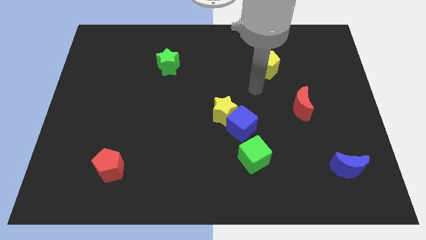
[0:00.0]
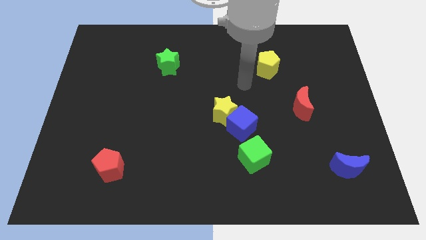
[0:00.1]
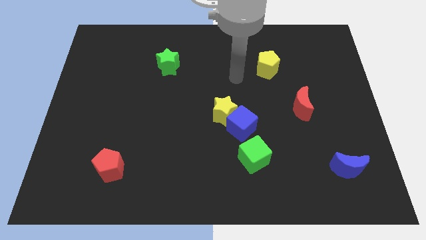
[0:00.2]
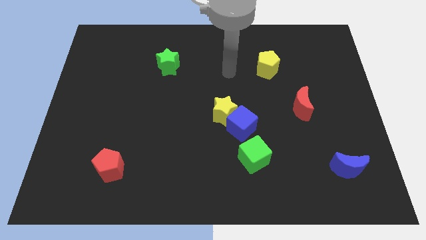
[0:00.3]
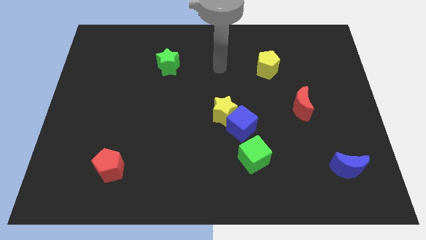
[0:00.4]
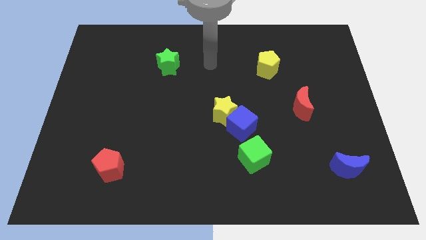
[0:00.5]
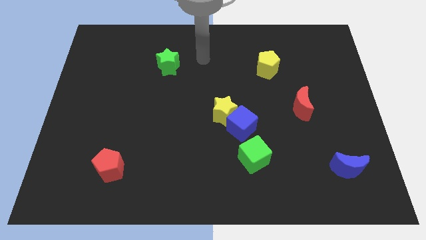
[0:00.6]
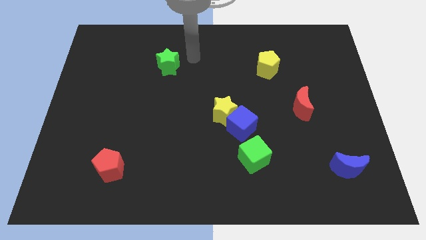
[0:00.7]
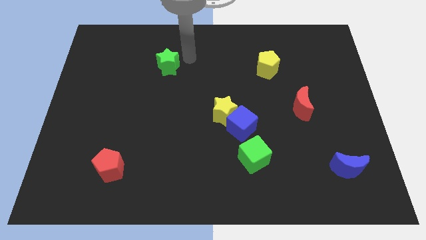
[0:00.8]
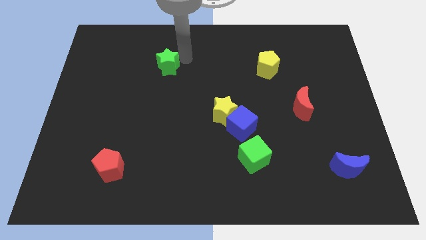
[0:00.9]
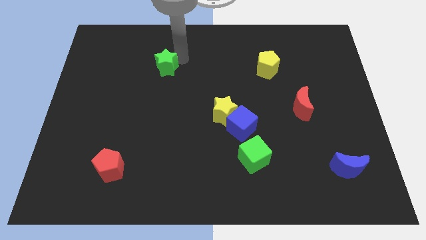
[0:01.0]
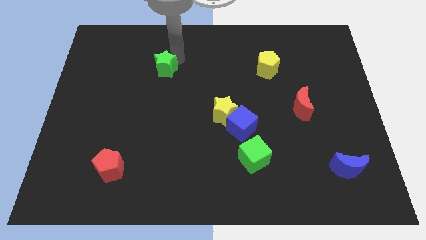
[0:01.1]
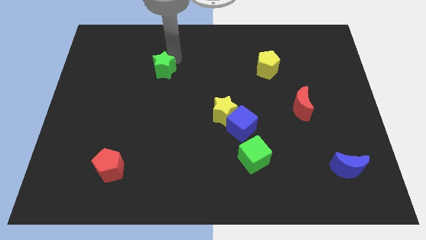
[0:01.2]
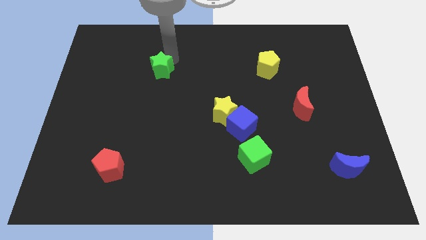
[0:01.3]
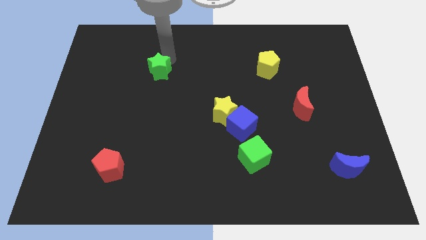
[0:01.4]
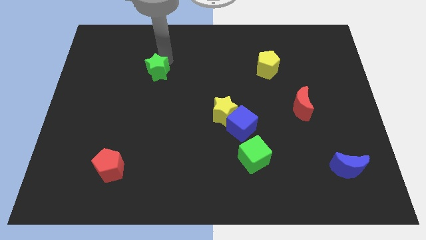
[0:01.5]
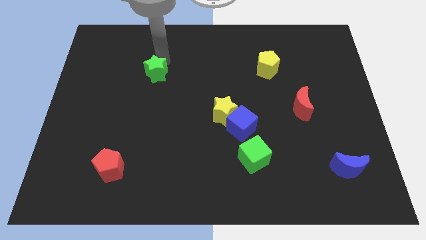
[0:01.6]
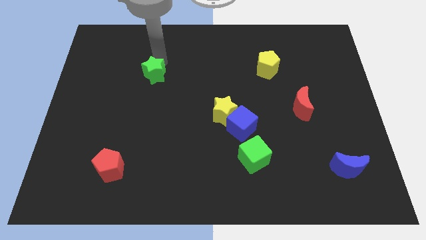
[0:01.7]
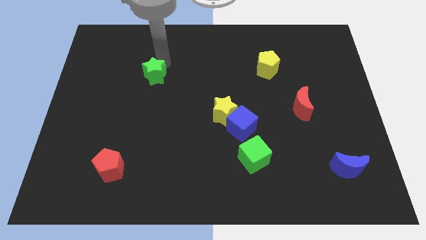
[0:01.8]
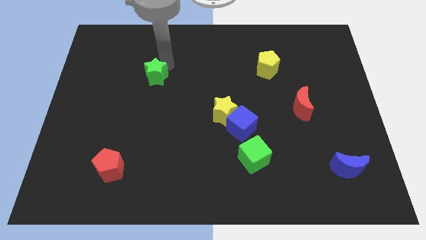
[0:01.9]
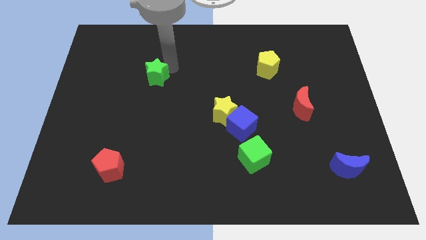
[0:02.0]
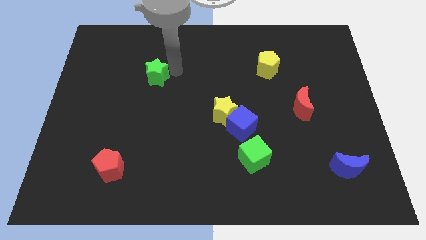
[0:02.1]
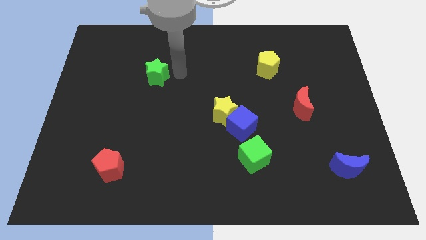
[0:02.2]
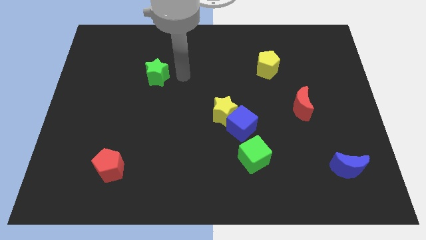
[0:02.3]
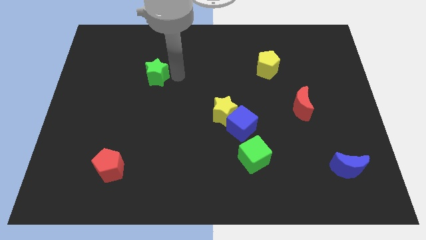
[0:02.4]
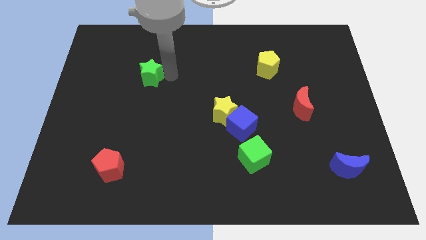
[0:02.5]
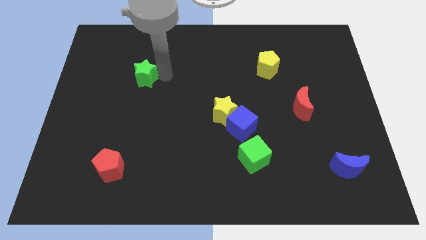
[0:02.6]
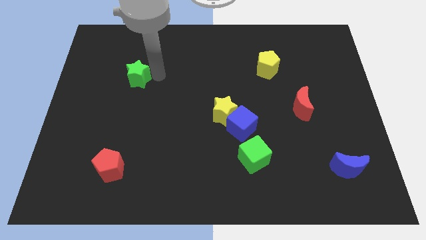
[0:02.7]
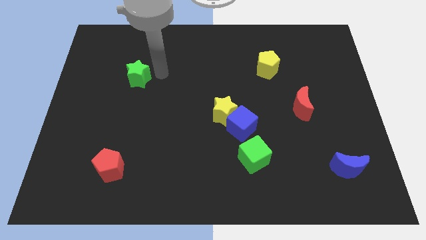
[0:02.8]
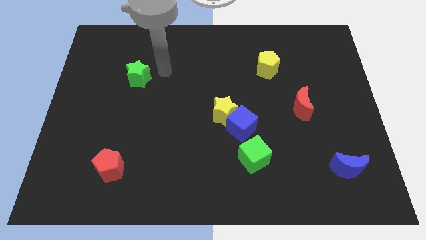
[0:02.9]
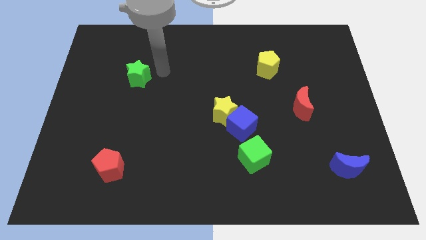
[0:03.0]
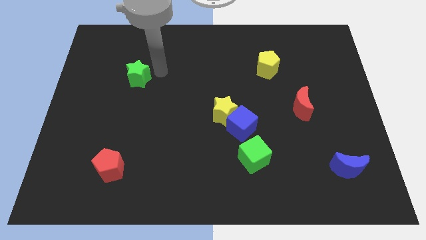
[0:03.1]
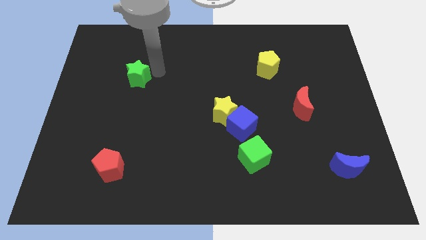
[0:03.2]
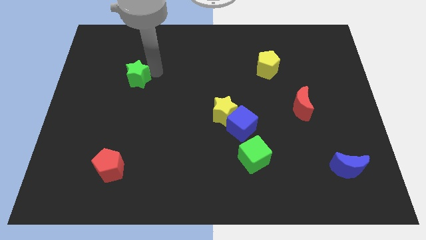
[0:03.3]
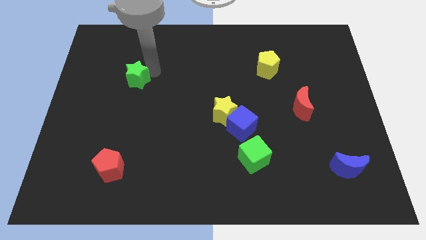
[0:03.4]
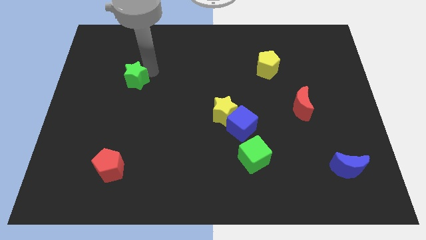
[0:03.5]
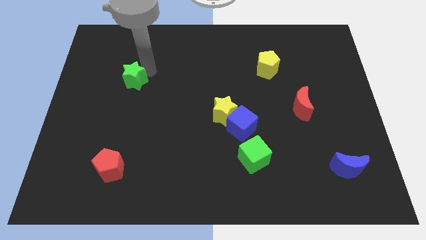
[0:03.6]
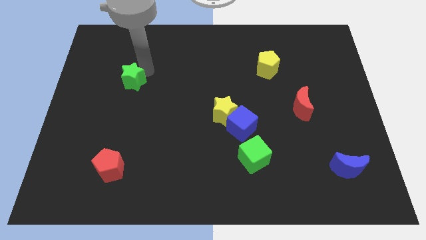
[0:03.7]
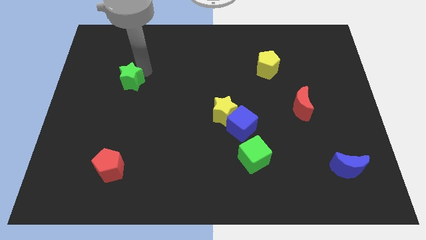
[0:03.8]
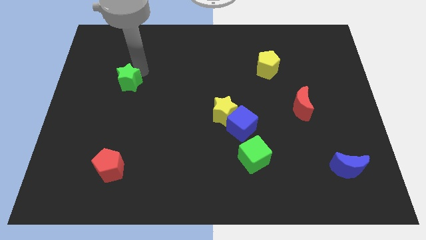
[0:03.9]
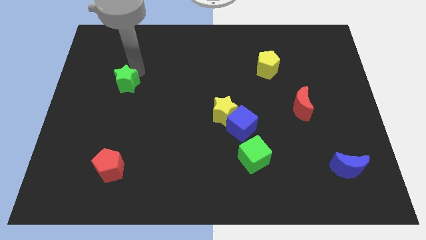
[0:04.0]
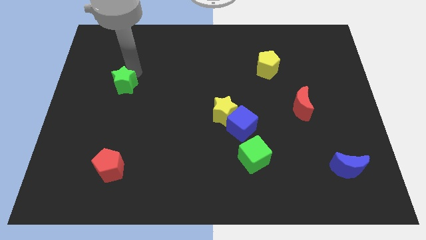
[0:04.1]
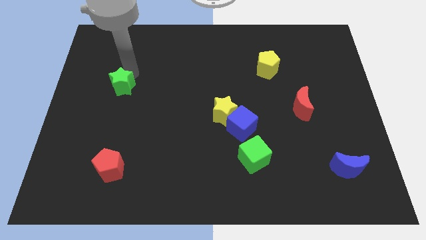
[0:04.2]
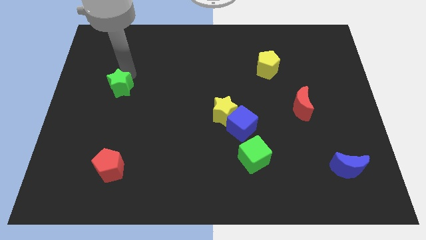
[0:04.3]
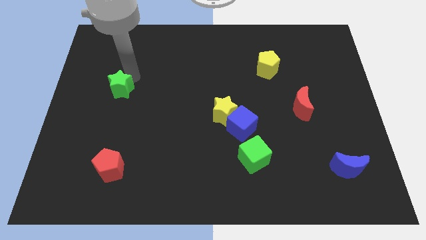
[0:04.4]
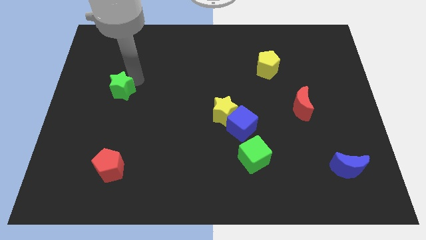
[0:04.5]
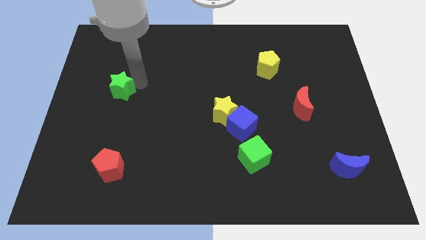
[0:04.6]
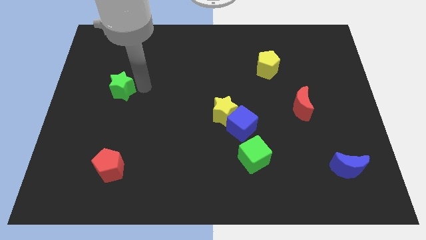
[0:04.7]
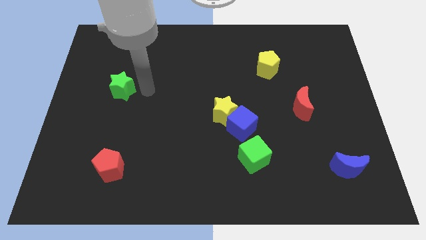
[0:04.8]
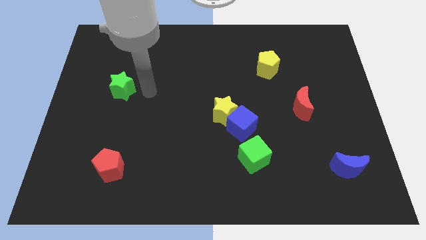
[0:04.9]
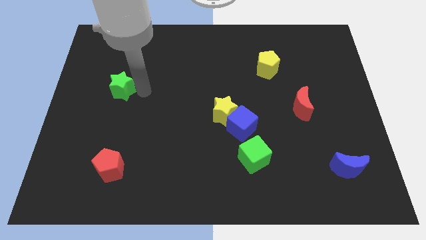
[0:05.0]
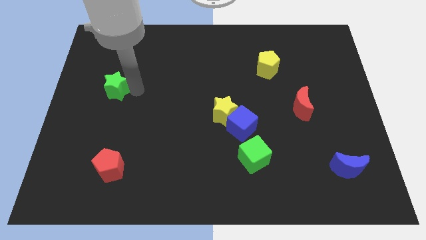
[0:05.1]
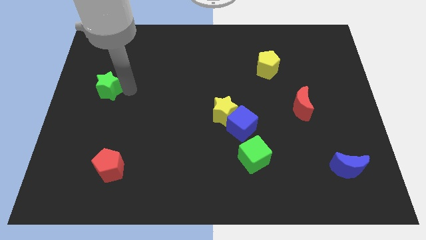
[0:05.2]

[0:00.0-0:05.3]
move the green star to the center left

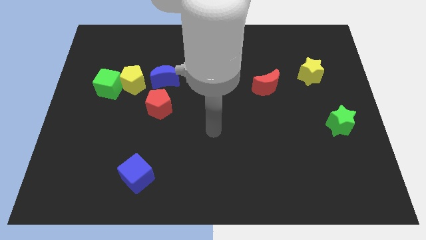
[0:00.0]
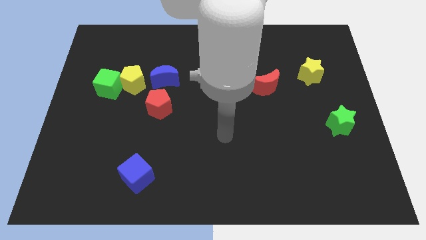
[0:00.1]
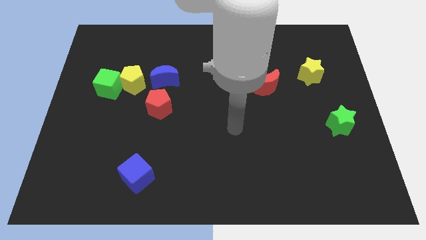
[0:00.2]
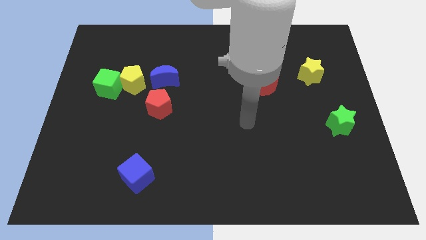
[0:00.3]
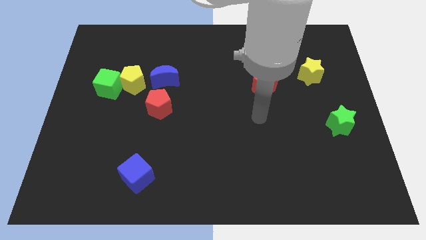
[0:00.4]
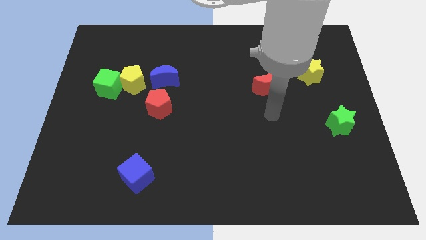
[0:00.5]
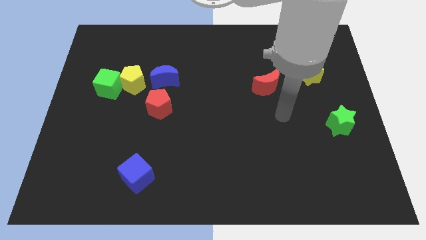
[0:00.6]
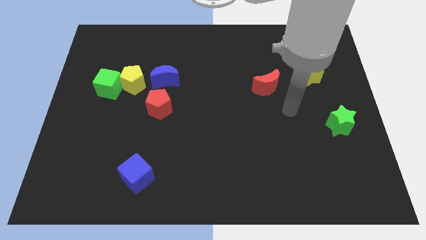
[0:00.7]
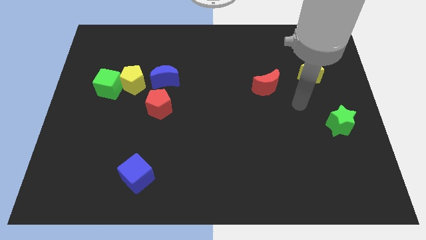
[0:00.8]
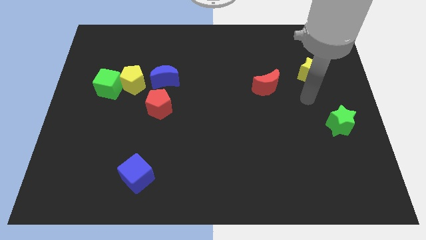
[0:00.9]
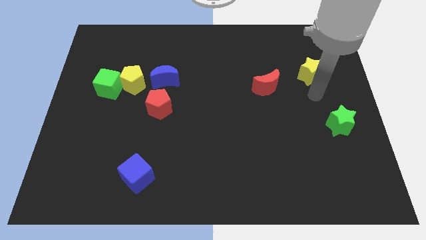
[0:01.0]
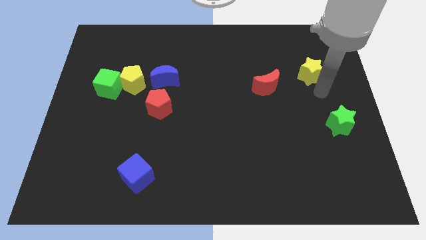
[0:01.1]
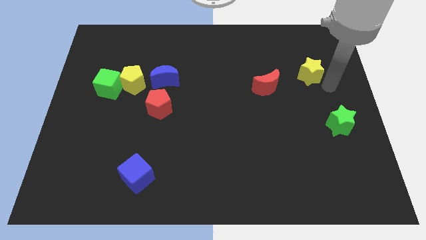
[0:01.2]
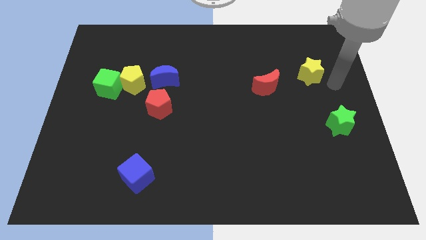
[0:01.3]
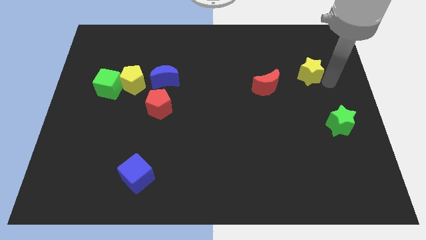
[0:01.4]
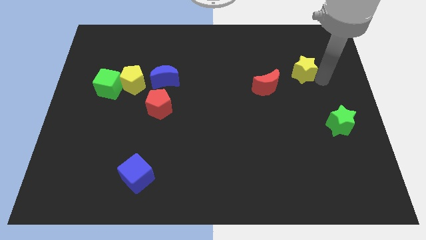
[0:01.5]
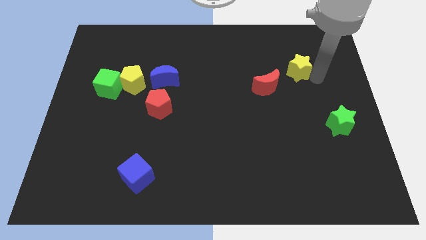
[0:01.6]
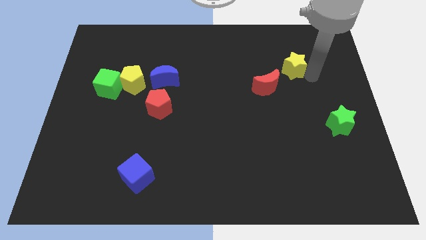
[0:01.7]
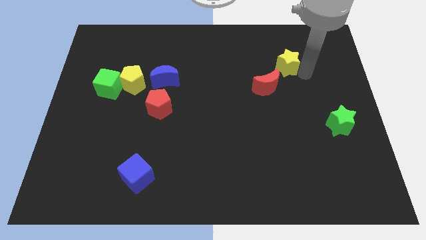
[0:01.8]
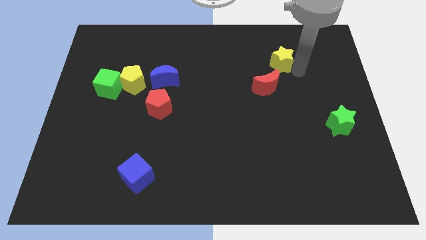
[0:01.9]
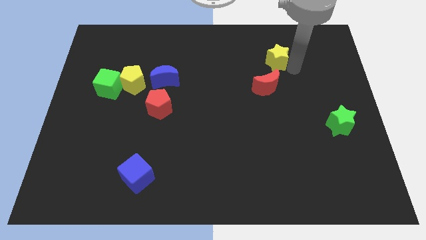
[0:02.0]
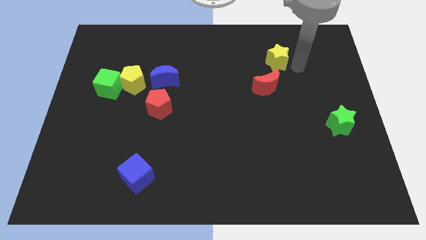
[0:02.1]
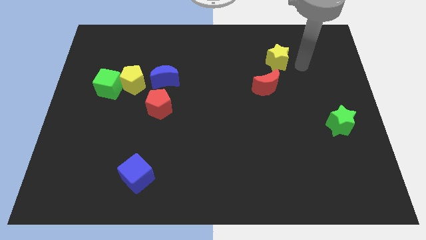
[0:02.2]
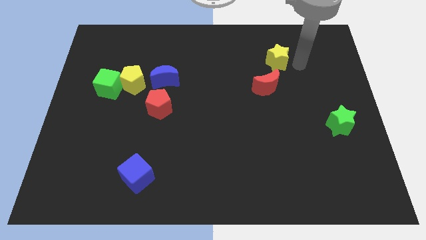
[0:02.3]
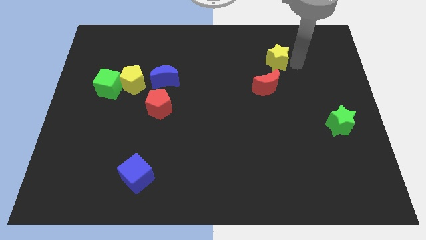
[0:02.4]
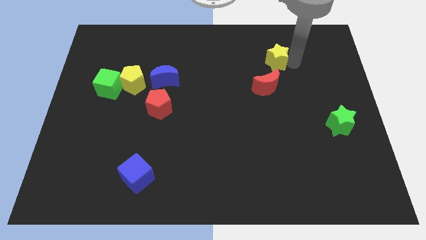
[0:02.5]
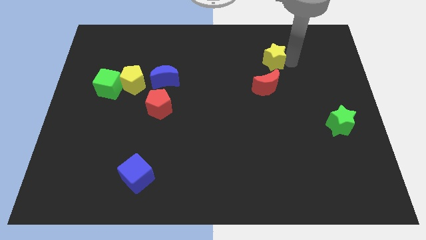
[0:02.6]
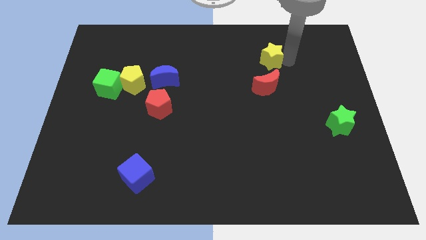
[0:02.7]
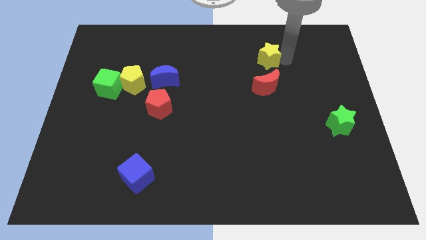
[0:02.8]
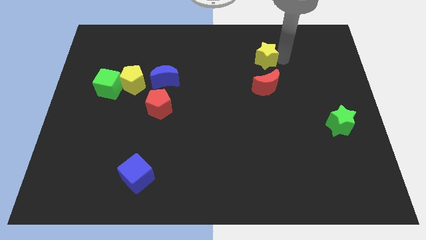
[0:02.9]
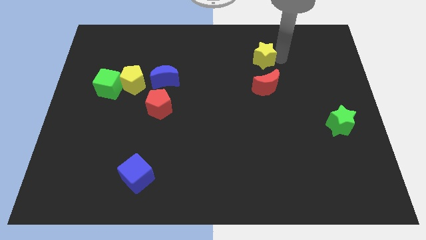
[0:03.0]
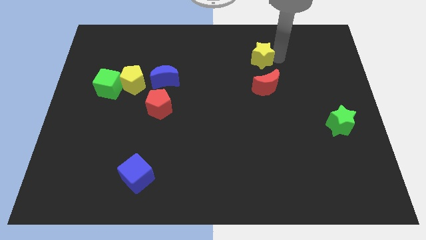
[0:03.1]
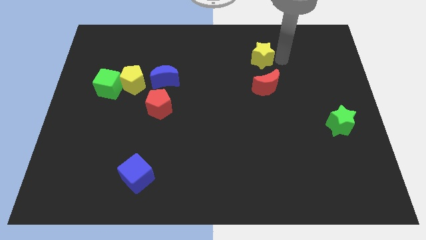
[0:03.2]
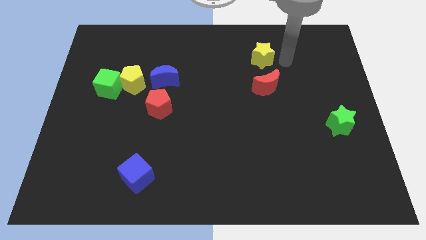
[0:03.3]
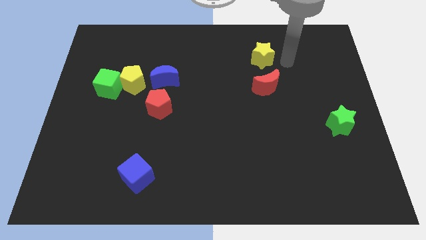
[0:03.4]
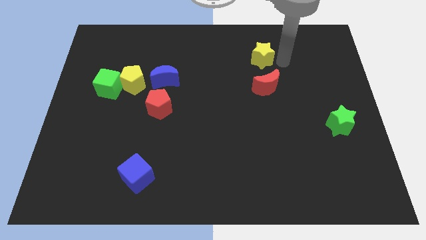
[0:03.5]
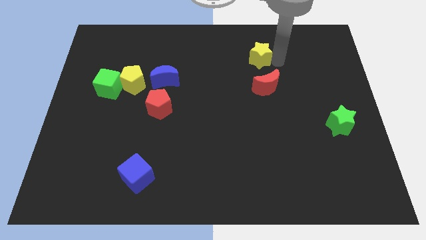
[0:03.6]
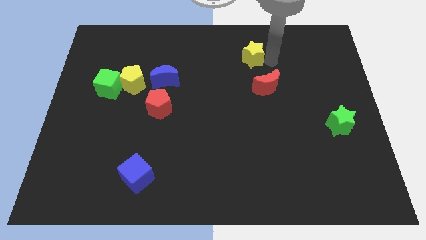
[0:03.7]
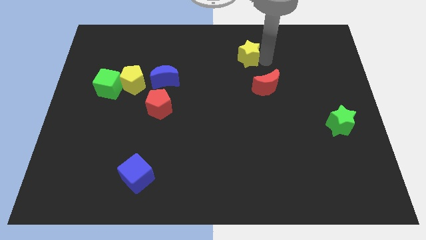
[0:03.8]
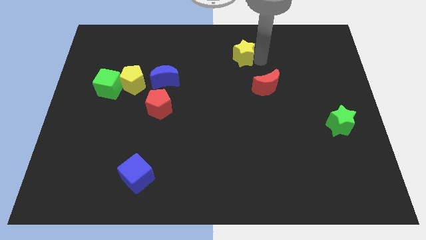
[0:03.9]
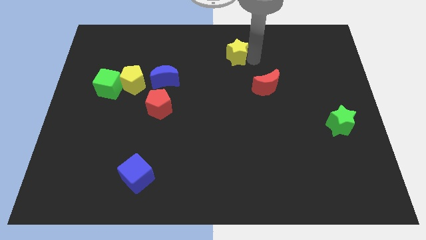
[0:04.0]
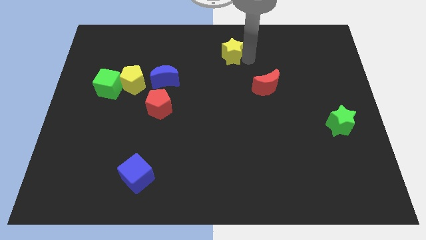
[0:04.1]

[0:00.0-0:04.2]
move the yellow star to the towards your base
